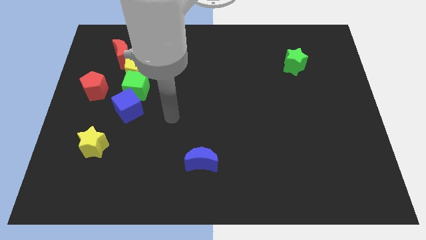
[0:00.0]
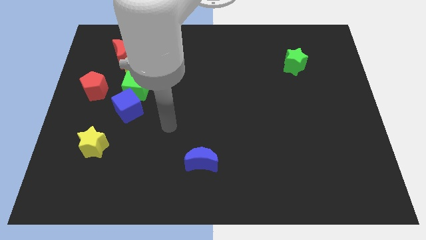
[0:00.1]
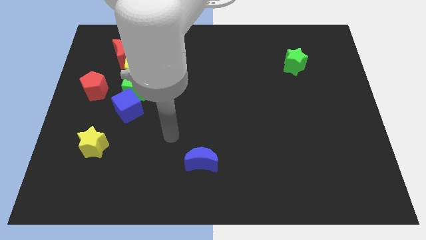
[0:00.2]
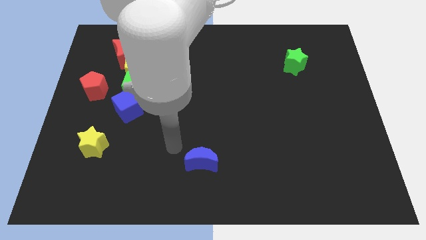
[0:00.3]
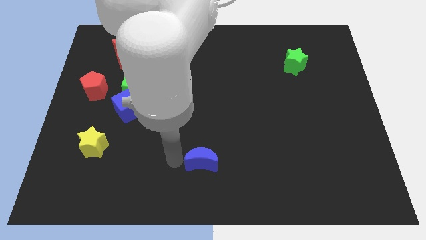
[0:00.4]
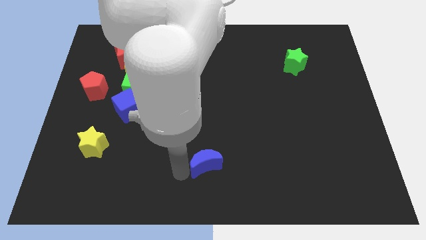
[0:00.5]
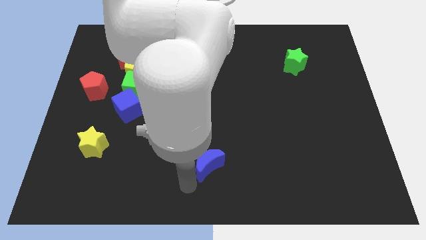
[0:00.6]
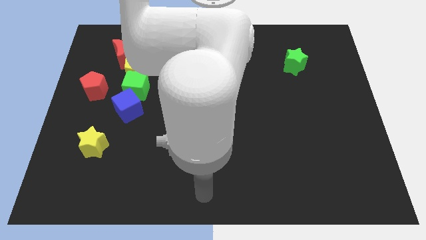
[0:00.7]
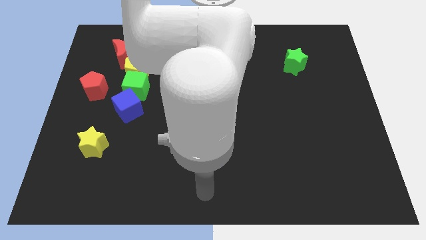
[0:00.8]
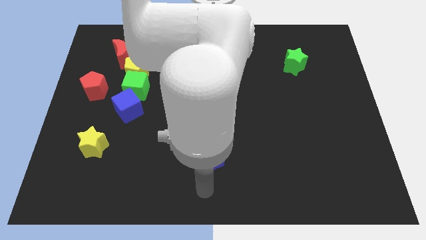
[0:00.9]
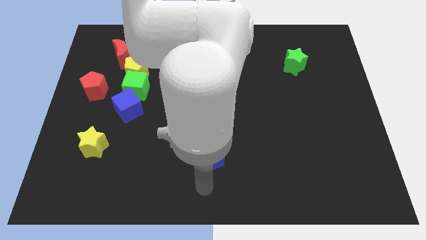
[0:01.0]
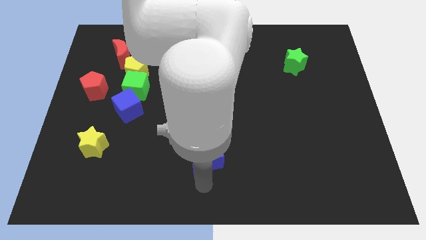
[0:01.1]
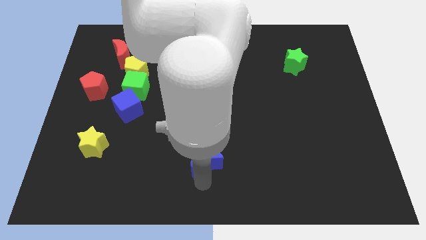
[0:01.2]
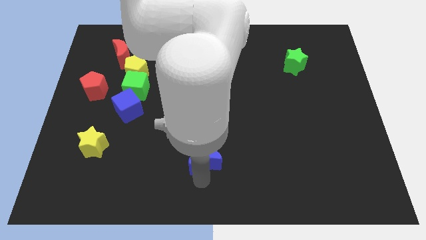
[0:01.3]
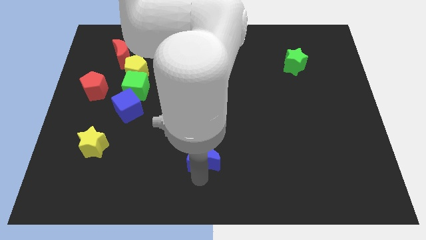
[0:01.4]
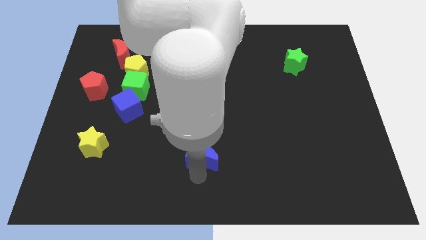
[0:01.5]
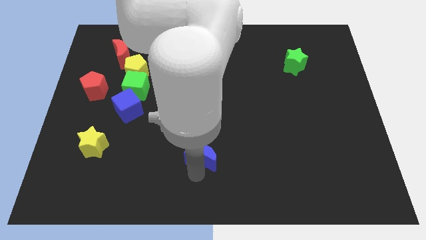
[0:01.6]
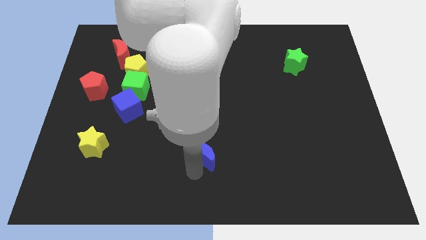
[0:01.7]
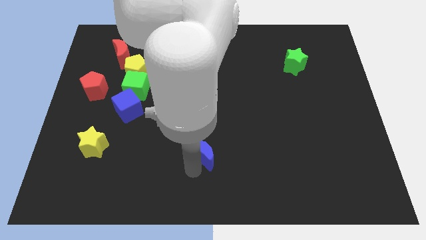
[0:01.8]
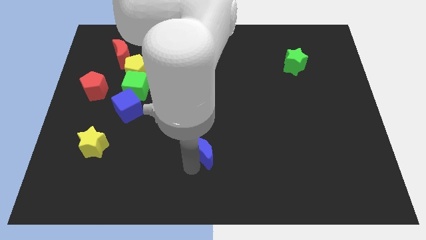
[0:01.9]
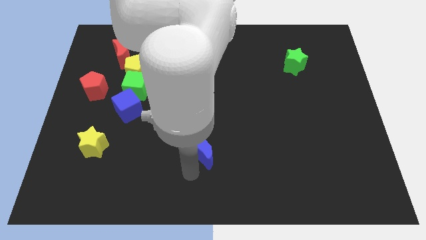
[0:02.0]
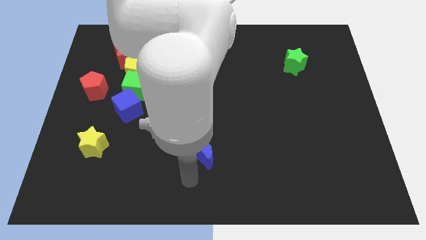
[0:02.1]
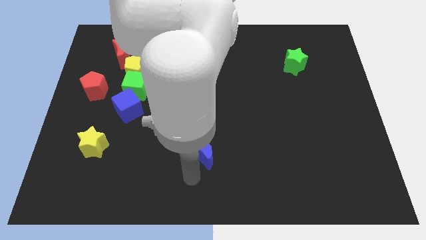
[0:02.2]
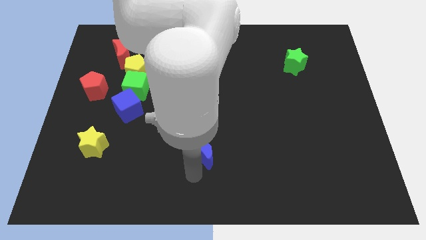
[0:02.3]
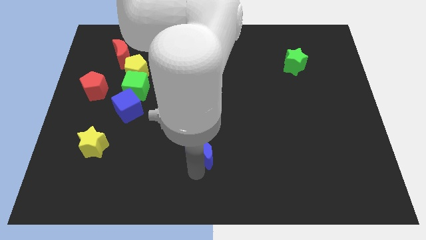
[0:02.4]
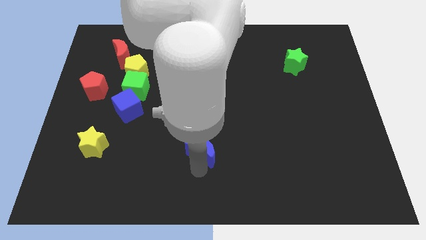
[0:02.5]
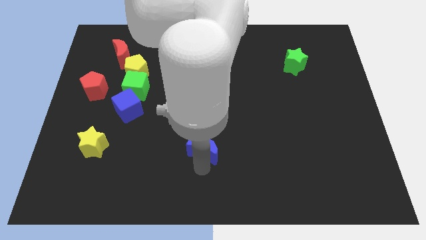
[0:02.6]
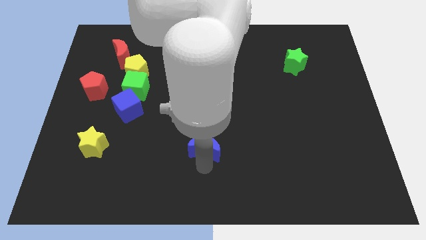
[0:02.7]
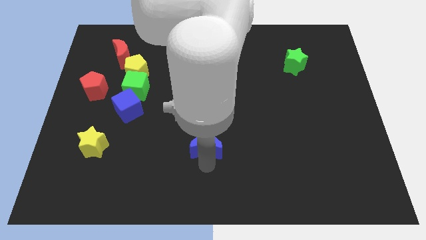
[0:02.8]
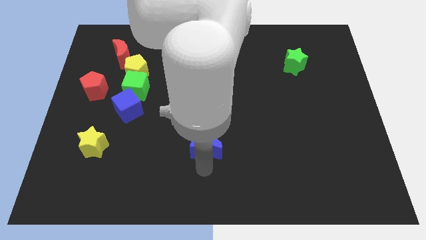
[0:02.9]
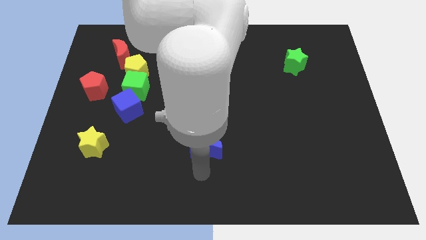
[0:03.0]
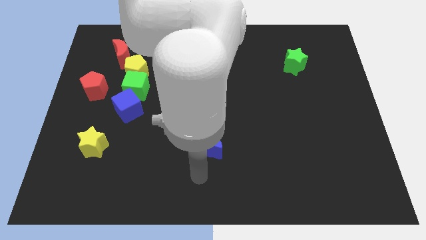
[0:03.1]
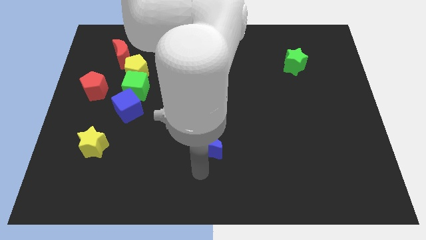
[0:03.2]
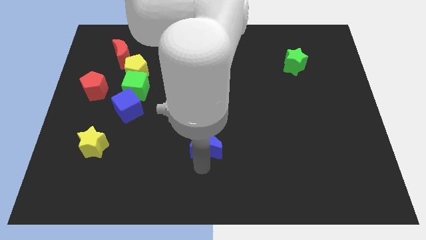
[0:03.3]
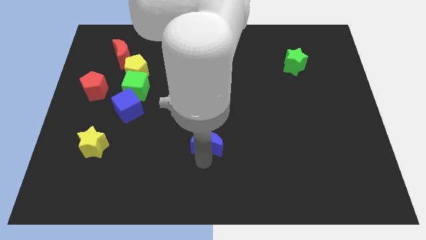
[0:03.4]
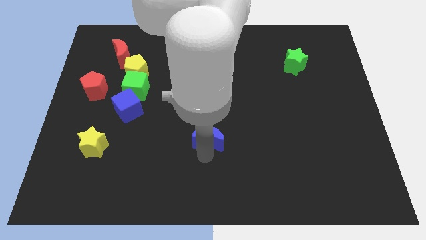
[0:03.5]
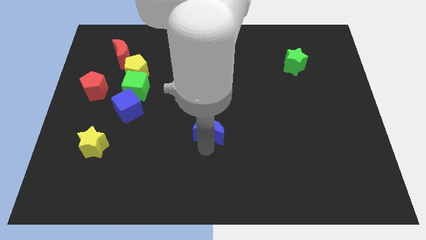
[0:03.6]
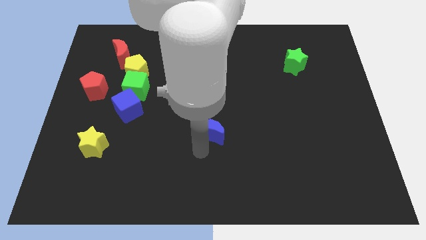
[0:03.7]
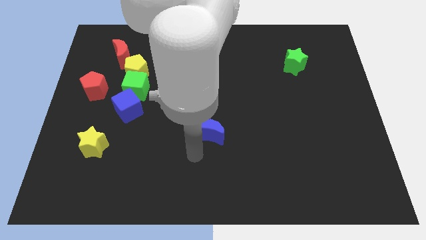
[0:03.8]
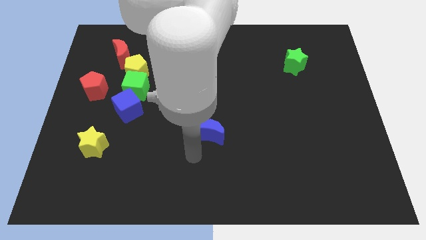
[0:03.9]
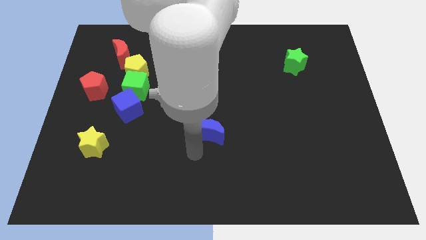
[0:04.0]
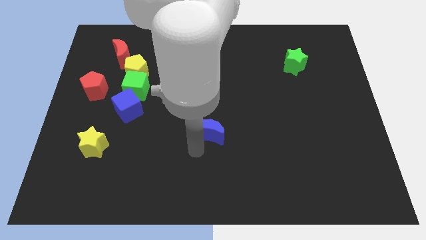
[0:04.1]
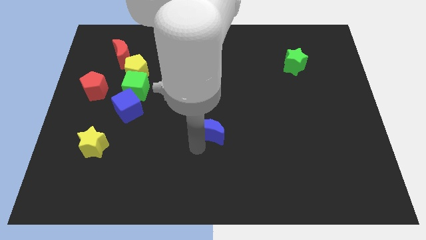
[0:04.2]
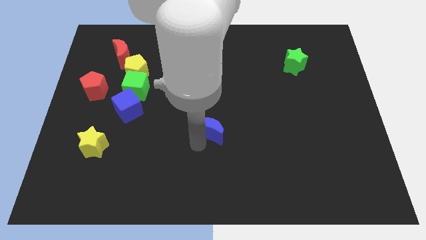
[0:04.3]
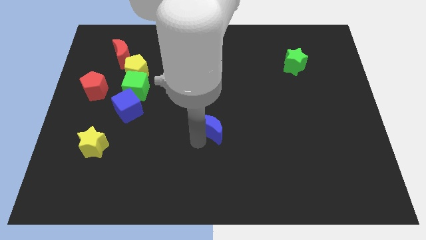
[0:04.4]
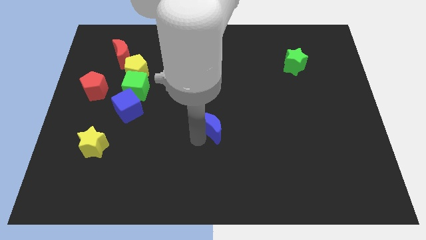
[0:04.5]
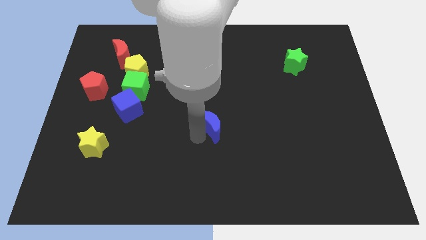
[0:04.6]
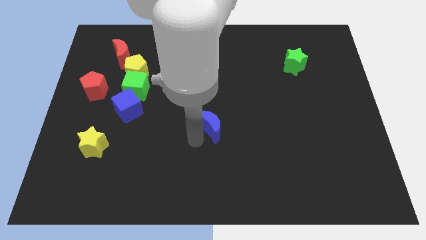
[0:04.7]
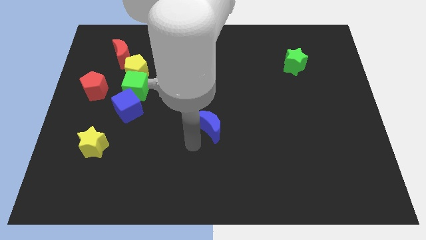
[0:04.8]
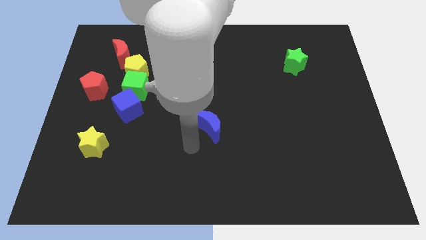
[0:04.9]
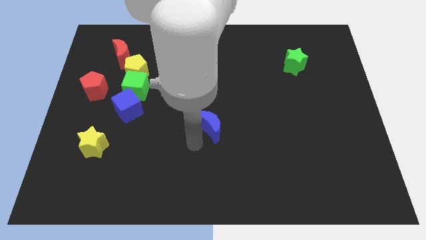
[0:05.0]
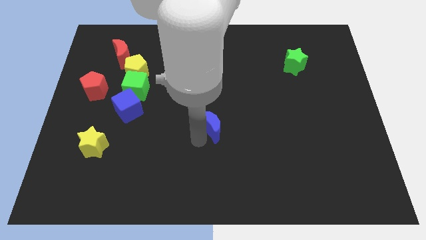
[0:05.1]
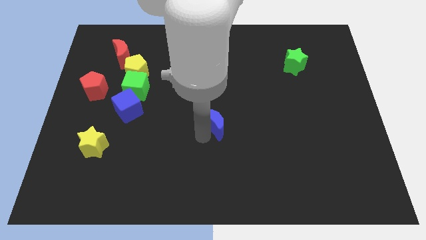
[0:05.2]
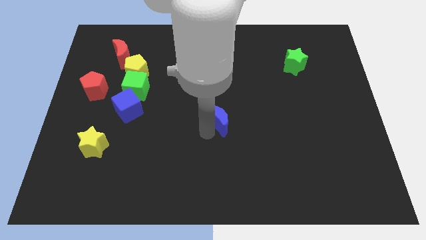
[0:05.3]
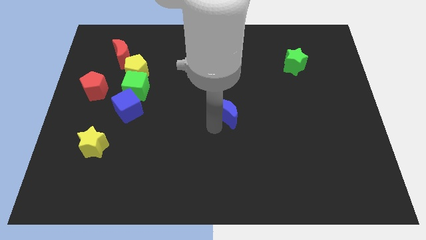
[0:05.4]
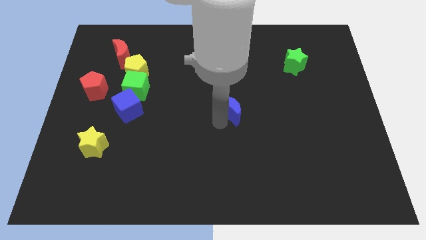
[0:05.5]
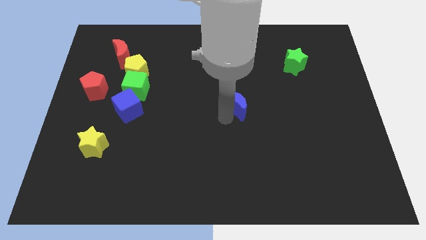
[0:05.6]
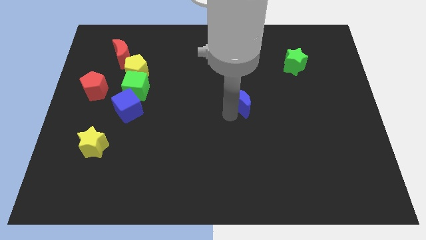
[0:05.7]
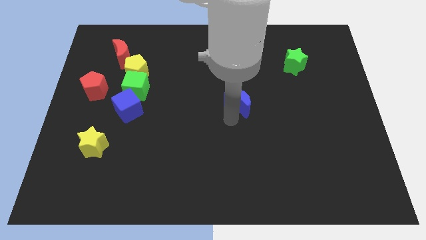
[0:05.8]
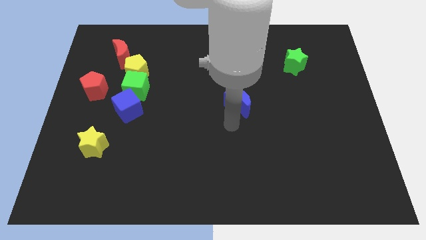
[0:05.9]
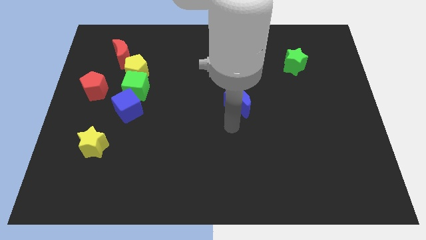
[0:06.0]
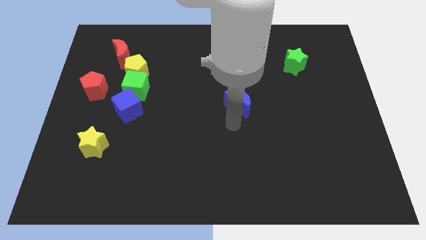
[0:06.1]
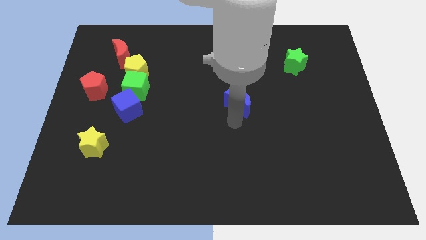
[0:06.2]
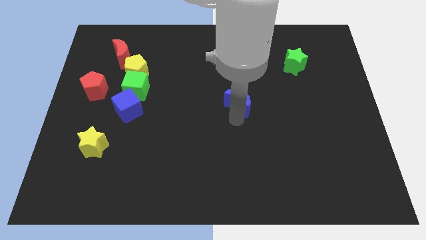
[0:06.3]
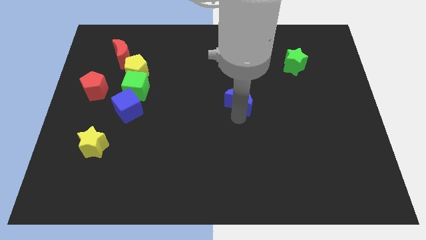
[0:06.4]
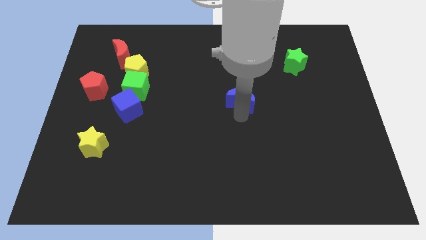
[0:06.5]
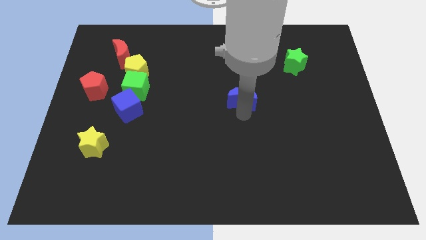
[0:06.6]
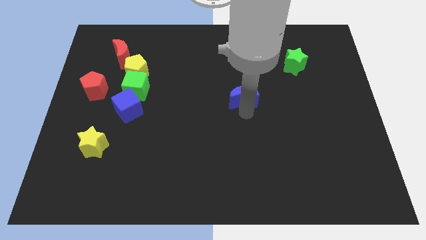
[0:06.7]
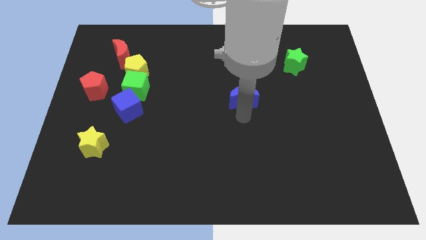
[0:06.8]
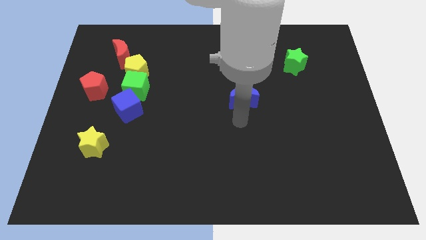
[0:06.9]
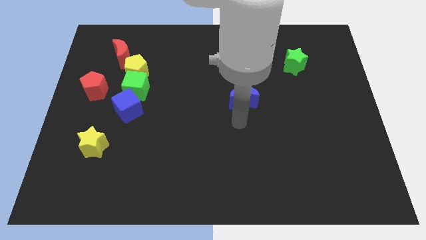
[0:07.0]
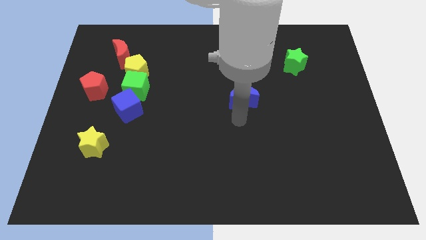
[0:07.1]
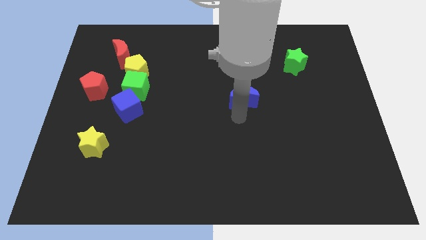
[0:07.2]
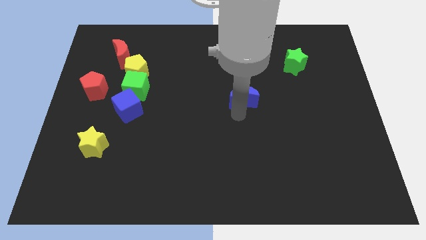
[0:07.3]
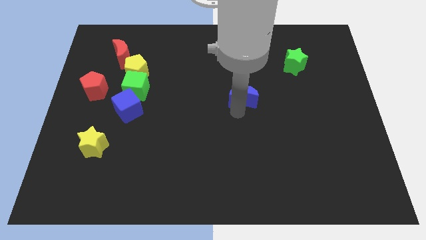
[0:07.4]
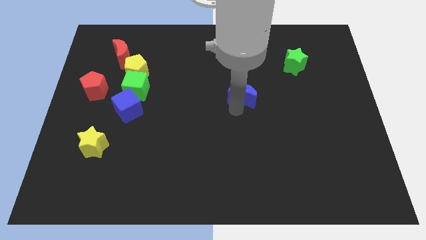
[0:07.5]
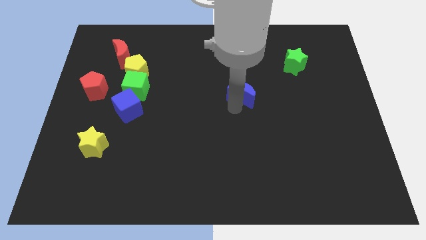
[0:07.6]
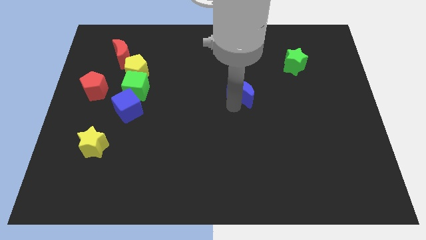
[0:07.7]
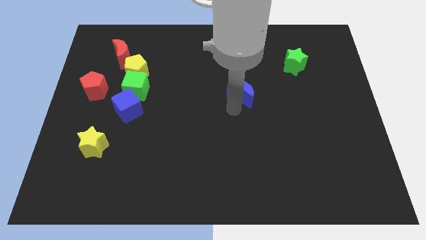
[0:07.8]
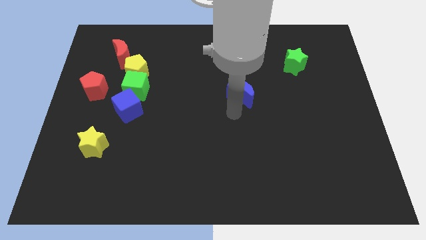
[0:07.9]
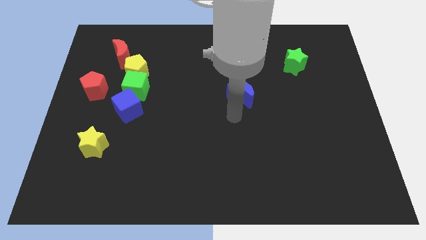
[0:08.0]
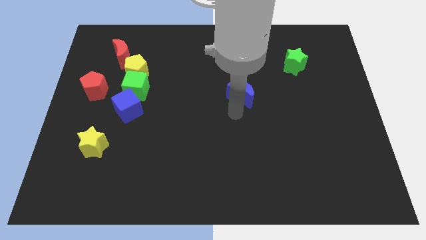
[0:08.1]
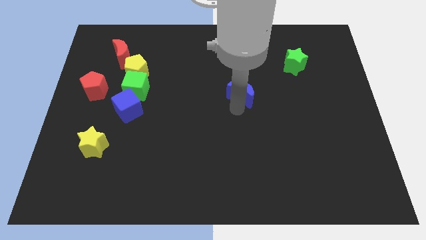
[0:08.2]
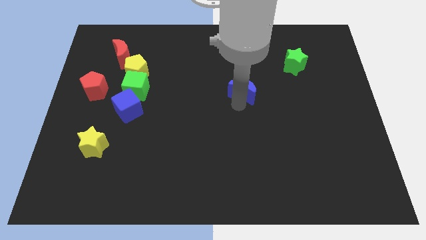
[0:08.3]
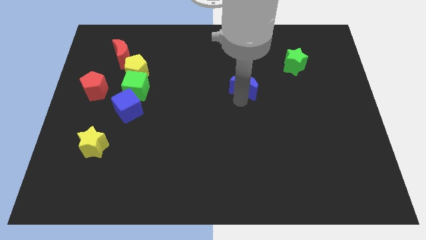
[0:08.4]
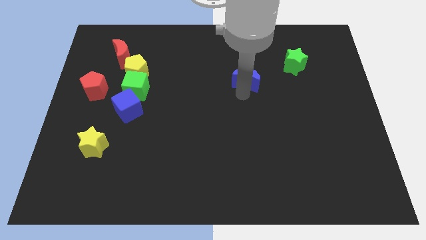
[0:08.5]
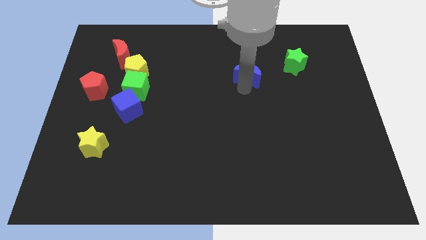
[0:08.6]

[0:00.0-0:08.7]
slide the blue moon to the left side of the green star
